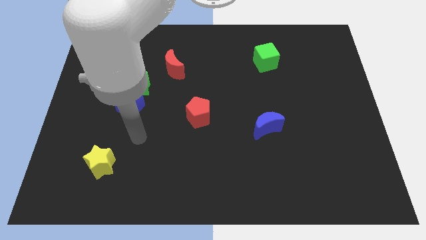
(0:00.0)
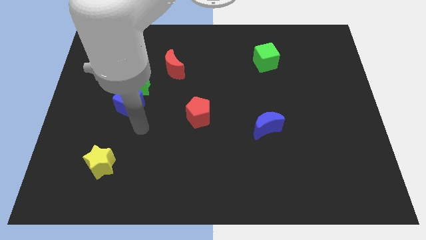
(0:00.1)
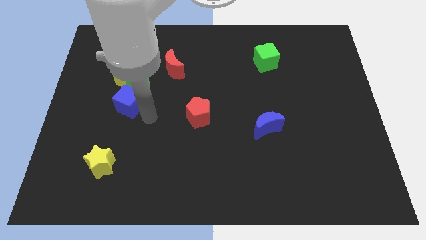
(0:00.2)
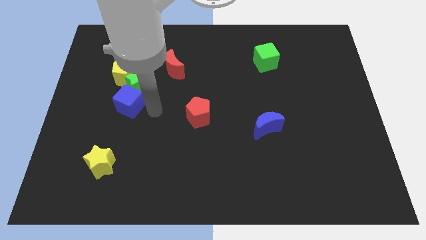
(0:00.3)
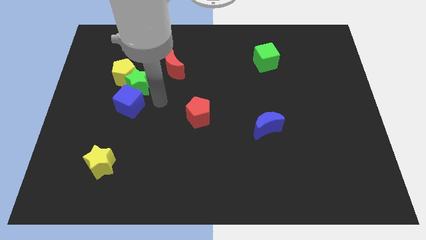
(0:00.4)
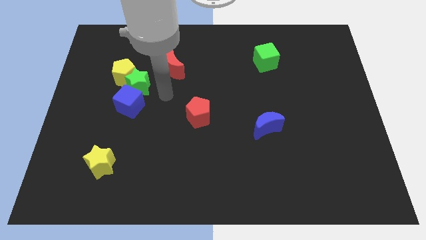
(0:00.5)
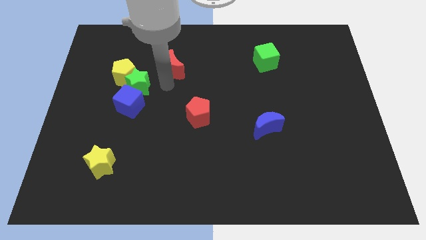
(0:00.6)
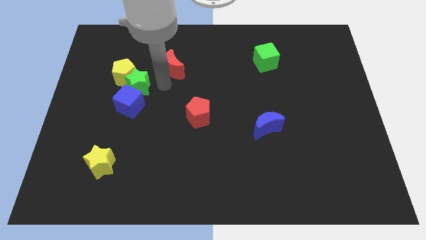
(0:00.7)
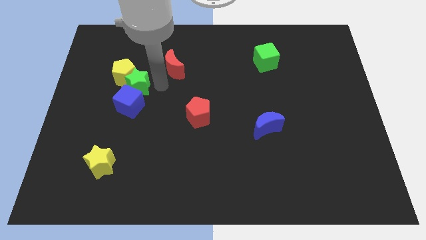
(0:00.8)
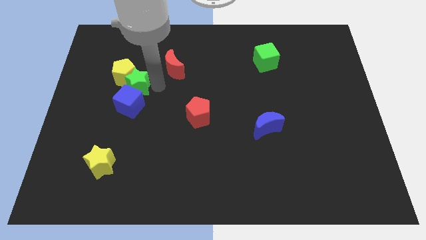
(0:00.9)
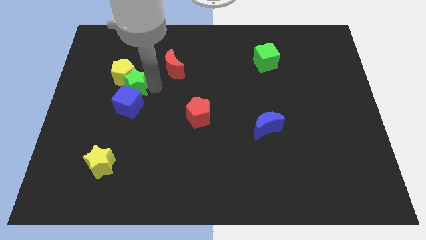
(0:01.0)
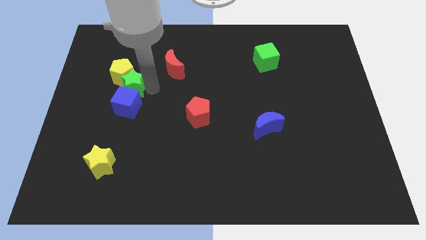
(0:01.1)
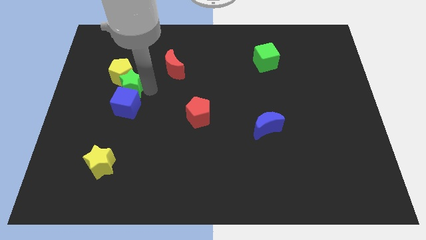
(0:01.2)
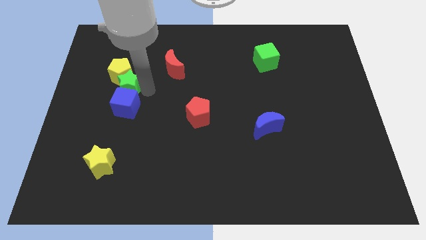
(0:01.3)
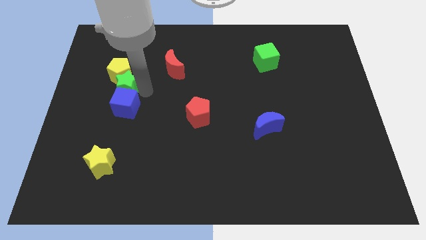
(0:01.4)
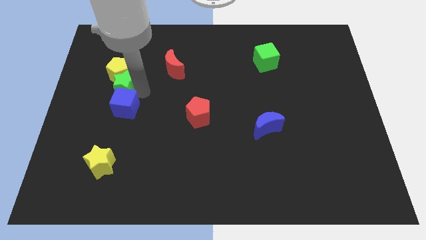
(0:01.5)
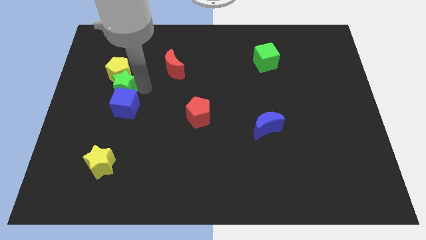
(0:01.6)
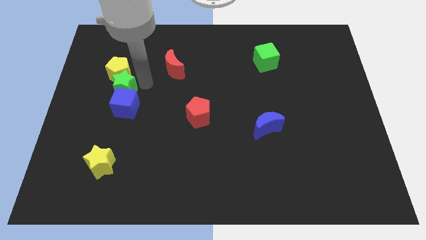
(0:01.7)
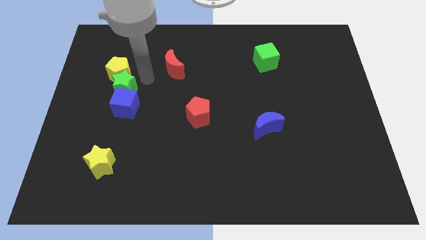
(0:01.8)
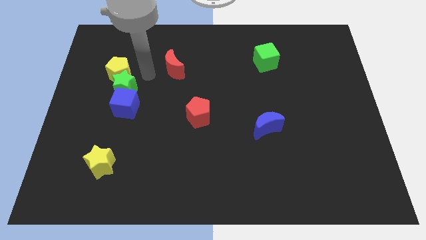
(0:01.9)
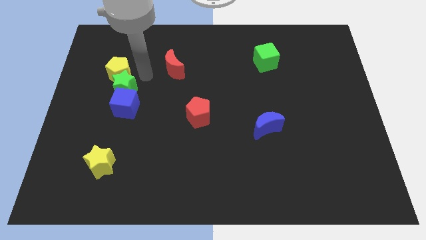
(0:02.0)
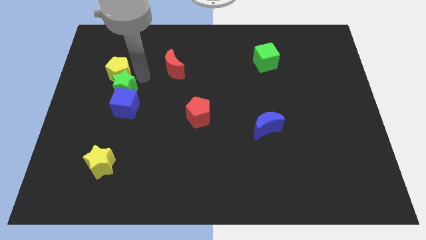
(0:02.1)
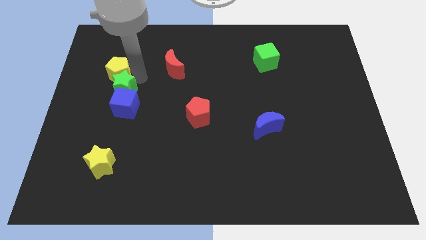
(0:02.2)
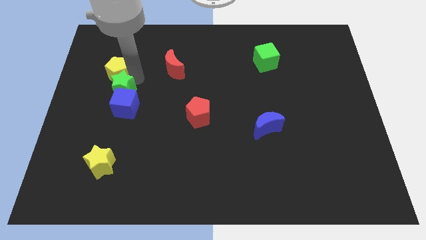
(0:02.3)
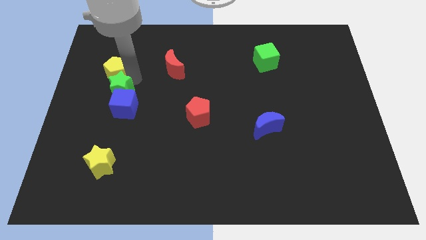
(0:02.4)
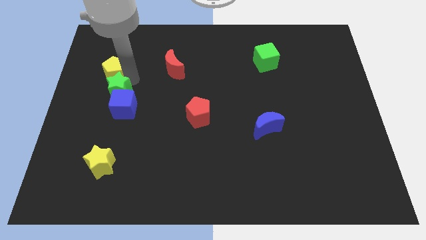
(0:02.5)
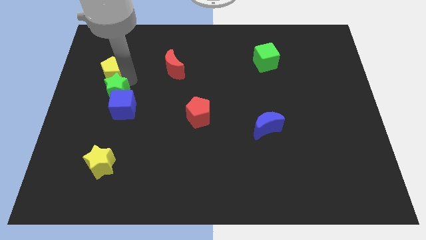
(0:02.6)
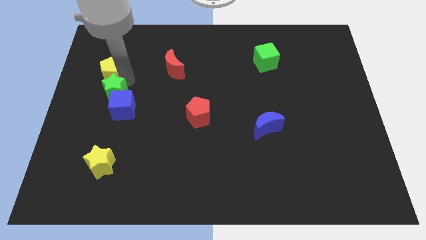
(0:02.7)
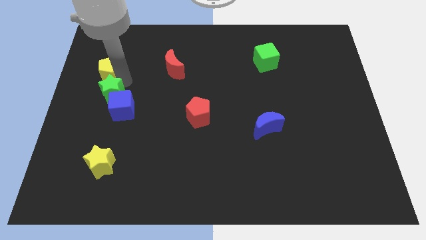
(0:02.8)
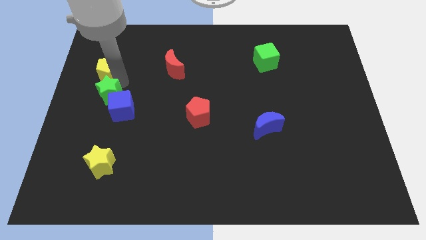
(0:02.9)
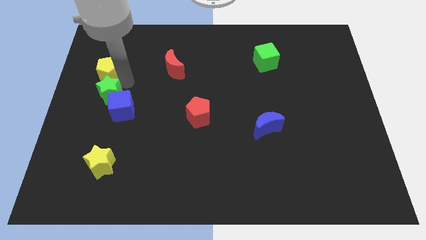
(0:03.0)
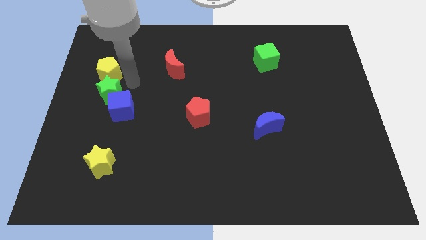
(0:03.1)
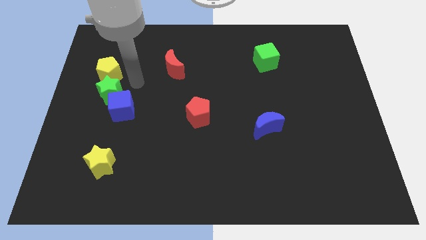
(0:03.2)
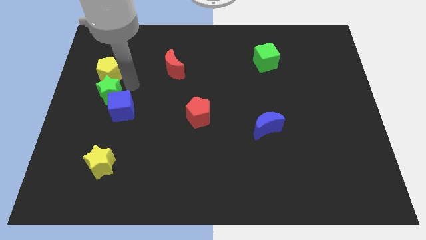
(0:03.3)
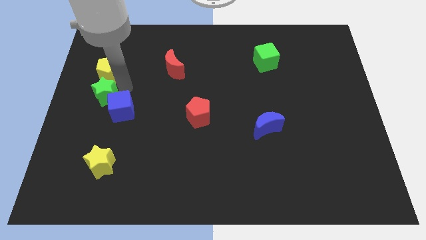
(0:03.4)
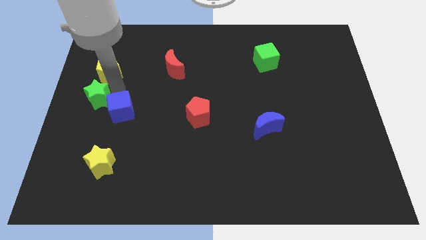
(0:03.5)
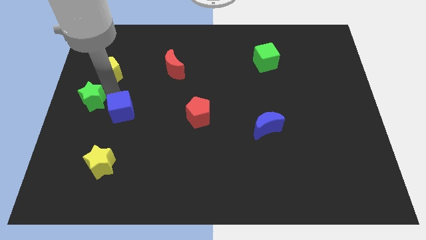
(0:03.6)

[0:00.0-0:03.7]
pull the green star apart from the yellow pentagon, blue cube, and red moon

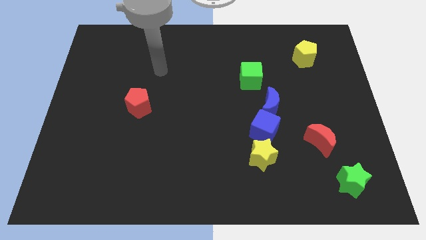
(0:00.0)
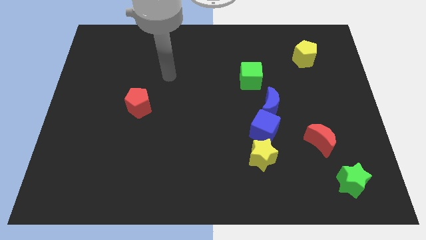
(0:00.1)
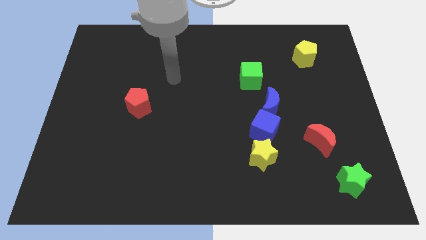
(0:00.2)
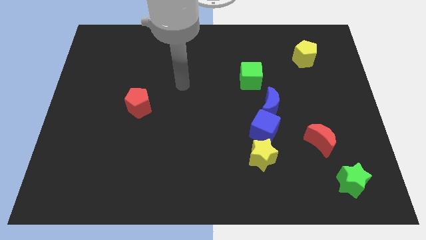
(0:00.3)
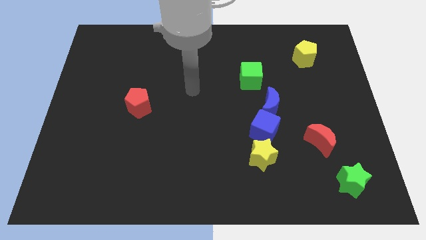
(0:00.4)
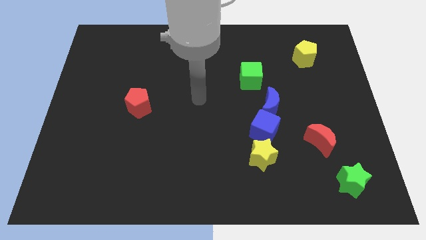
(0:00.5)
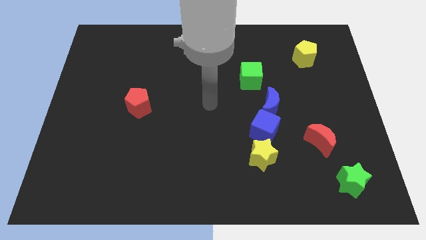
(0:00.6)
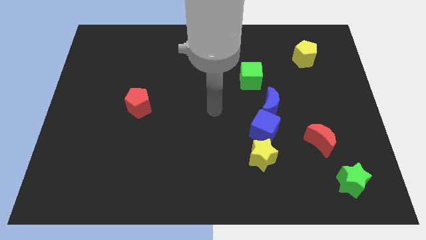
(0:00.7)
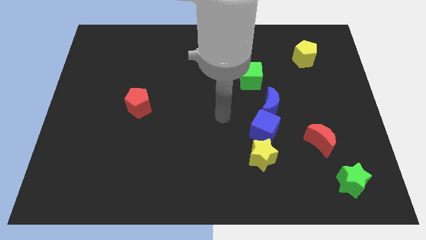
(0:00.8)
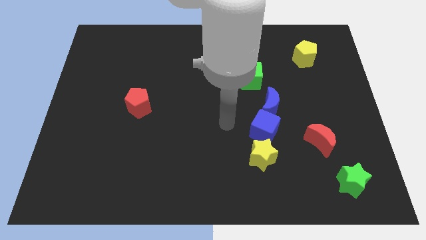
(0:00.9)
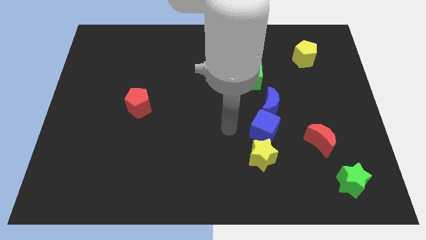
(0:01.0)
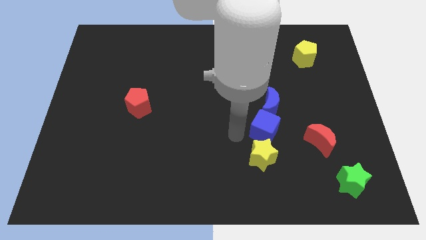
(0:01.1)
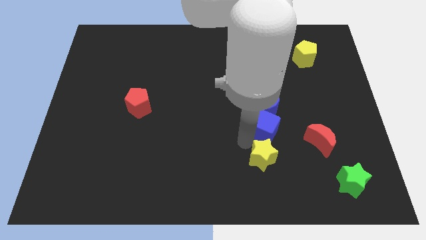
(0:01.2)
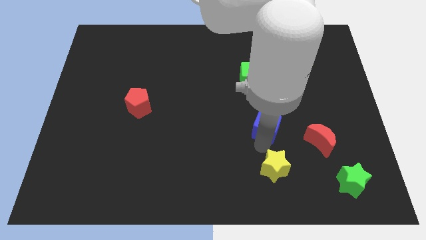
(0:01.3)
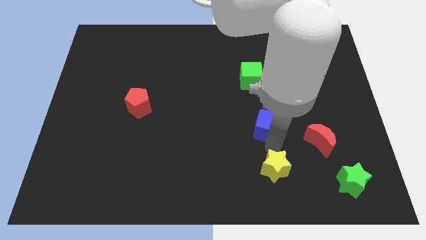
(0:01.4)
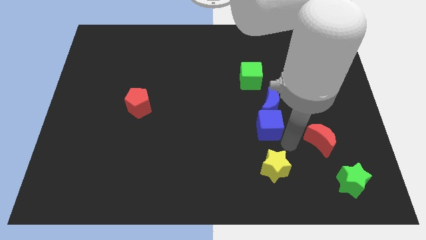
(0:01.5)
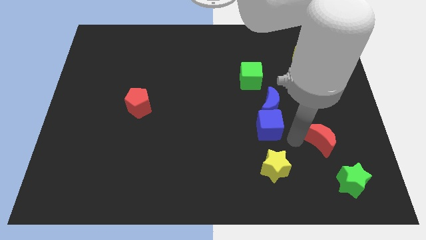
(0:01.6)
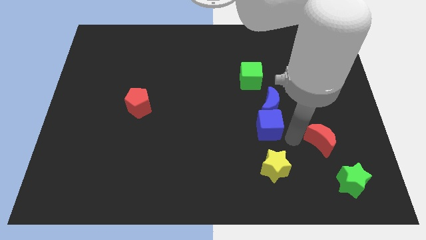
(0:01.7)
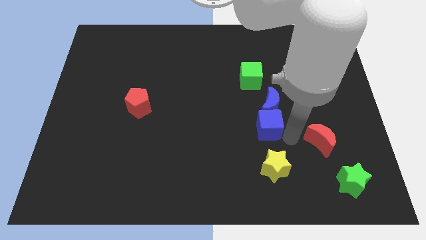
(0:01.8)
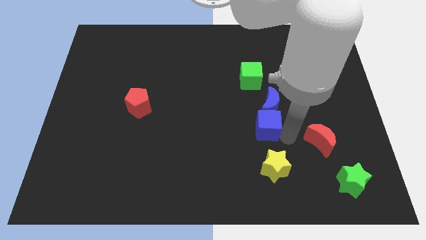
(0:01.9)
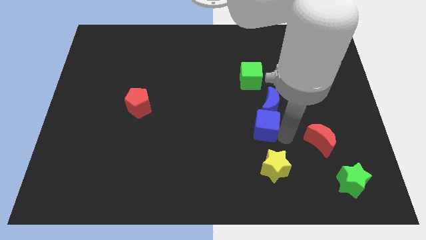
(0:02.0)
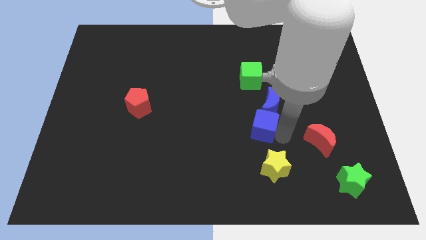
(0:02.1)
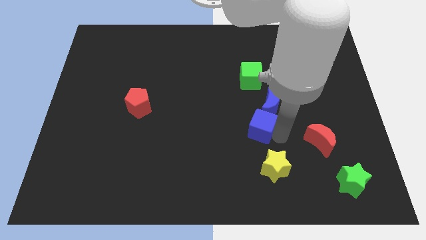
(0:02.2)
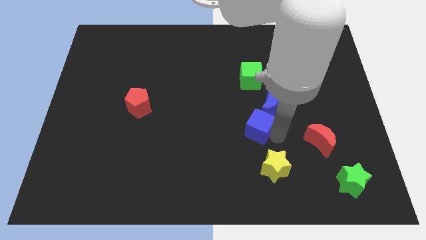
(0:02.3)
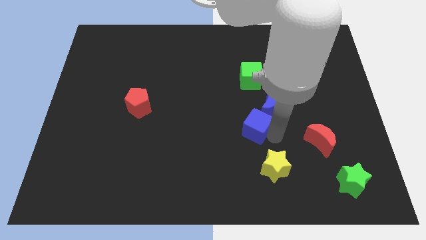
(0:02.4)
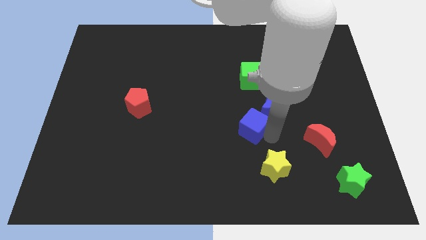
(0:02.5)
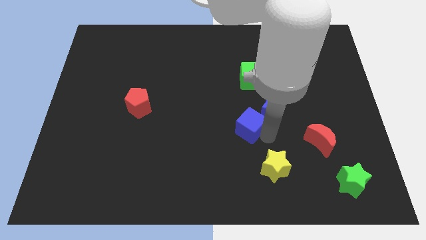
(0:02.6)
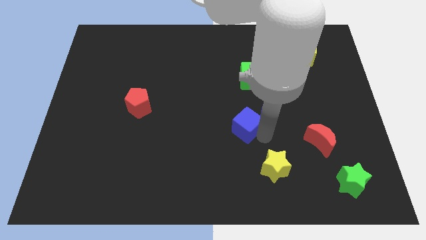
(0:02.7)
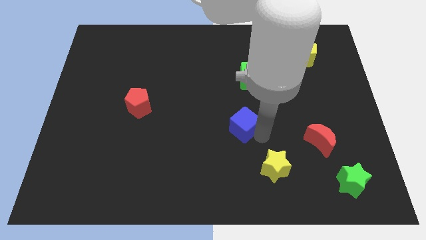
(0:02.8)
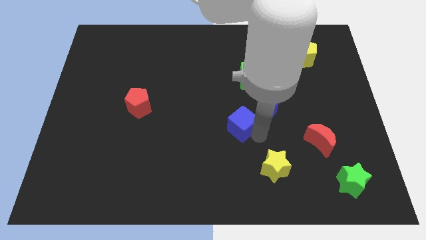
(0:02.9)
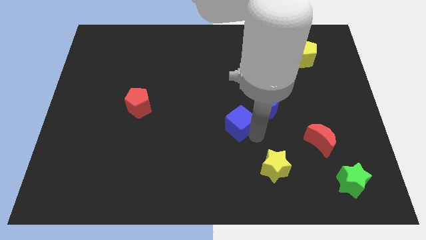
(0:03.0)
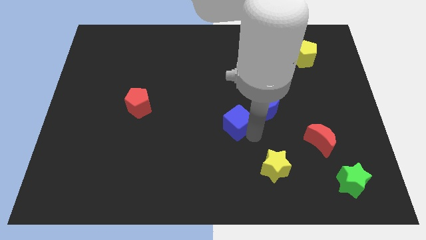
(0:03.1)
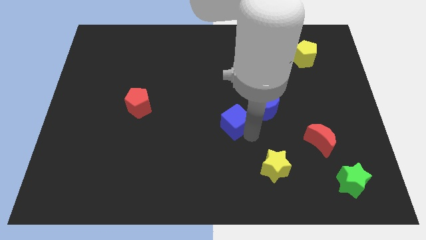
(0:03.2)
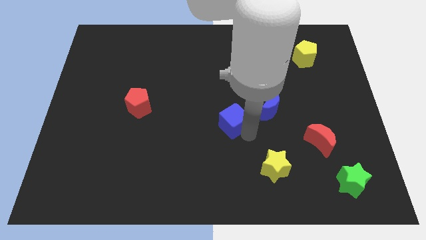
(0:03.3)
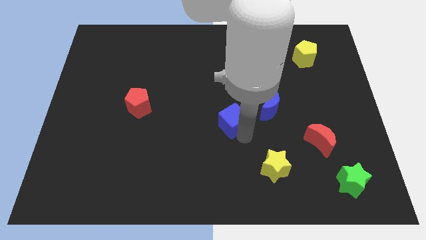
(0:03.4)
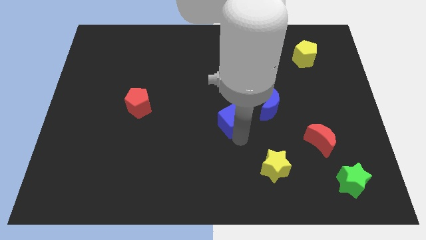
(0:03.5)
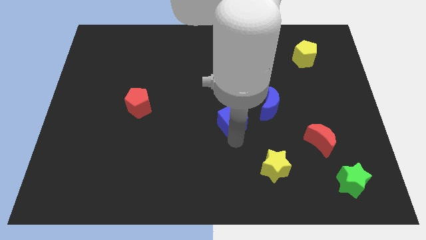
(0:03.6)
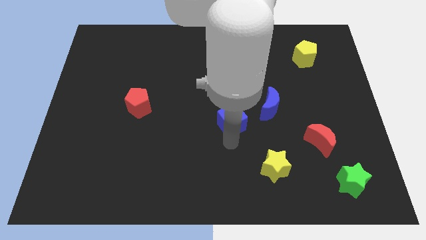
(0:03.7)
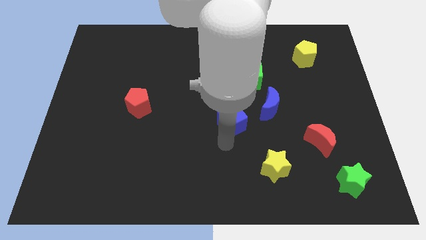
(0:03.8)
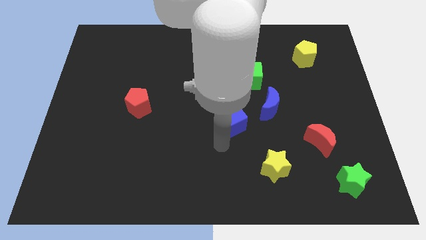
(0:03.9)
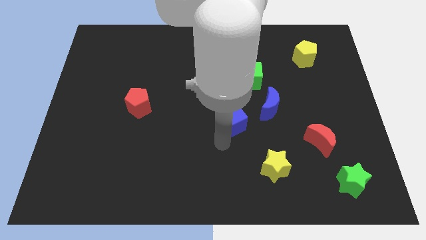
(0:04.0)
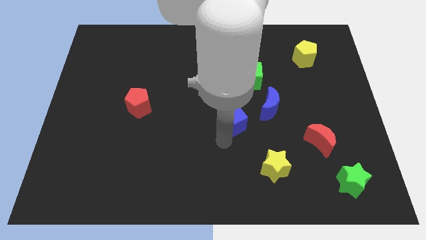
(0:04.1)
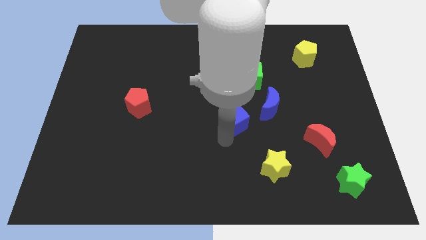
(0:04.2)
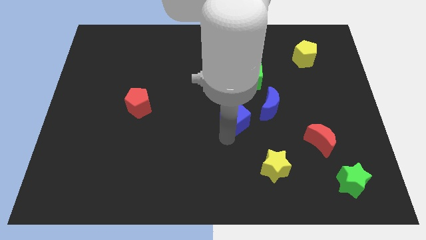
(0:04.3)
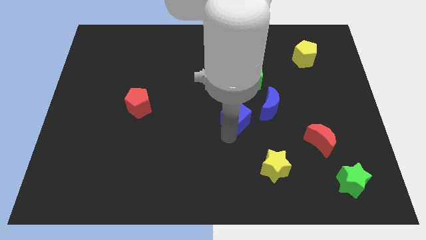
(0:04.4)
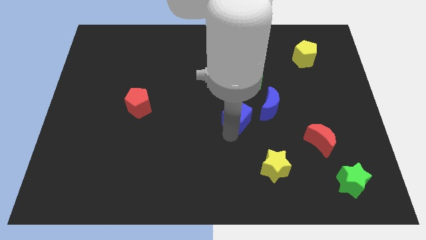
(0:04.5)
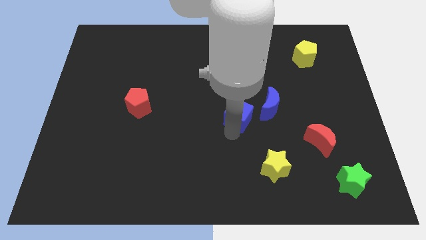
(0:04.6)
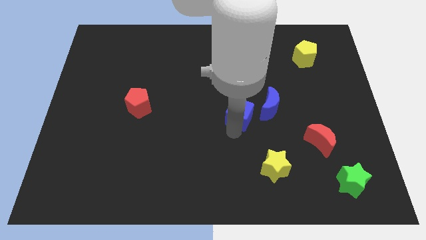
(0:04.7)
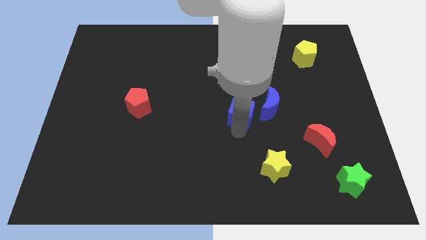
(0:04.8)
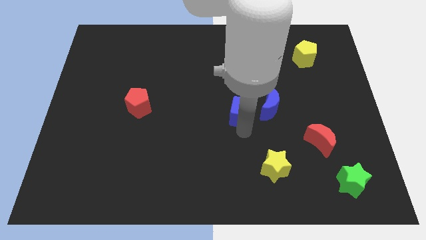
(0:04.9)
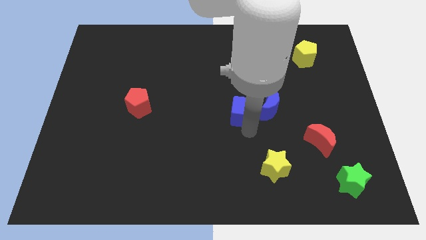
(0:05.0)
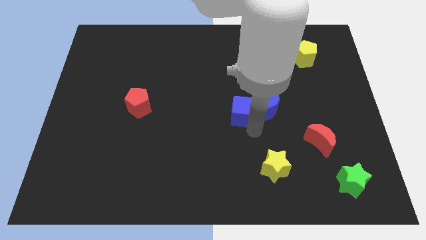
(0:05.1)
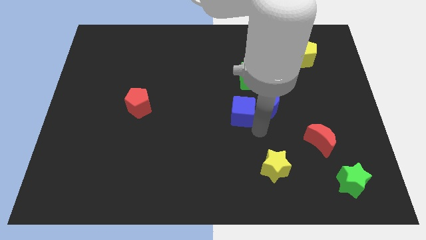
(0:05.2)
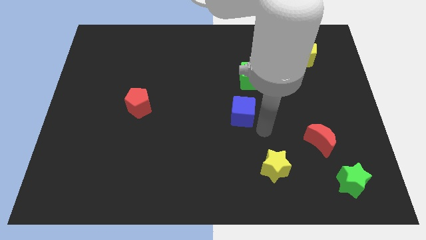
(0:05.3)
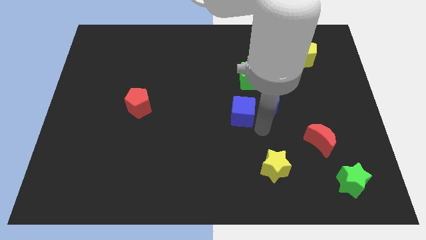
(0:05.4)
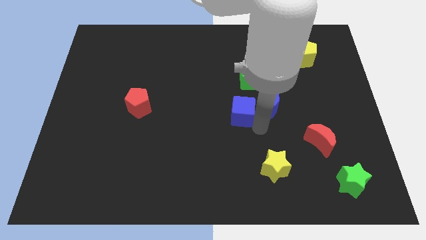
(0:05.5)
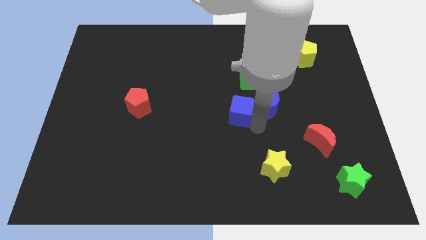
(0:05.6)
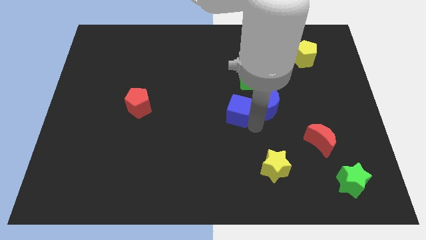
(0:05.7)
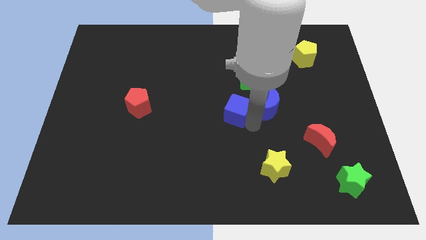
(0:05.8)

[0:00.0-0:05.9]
pull the blue cube apart from the blue moon and yellow star
